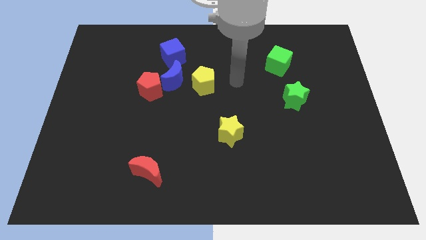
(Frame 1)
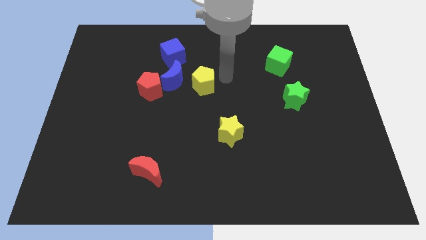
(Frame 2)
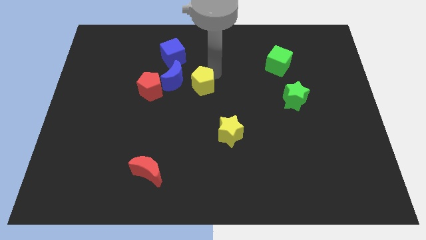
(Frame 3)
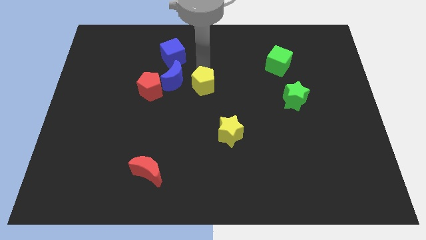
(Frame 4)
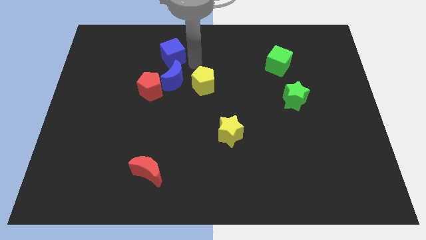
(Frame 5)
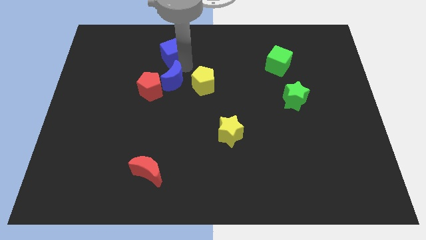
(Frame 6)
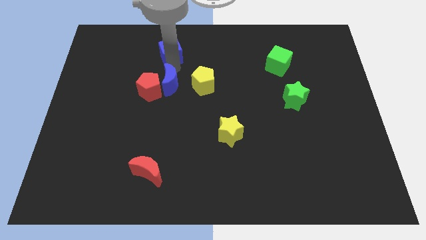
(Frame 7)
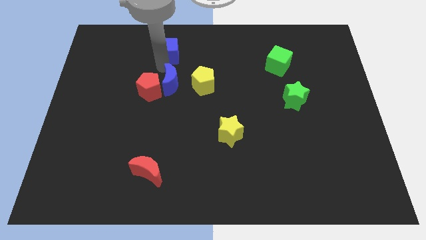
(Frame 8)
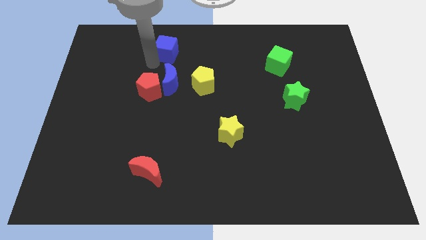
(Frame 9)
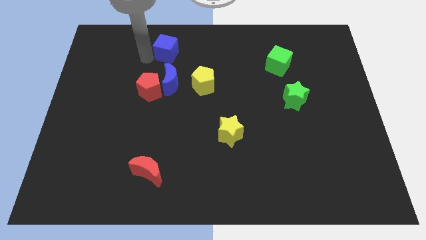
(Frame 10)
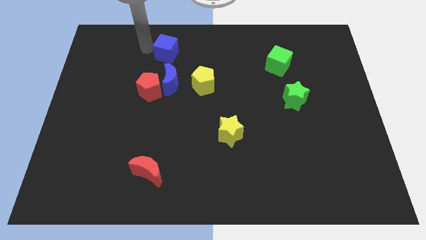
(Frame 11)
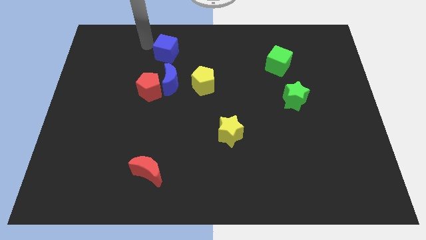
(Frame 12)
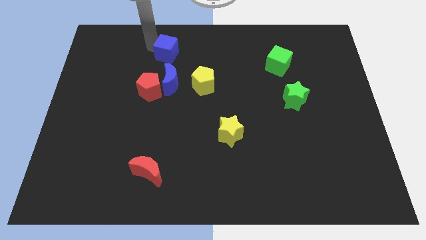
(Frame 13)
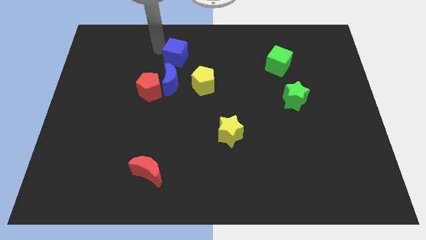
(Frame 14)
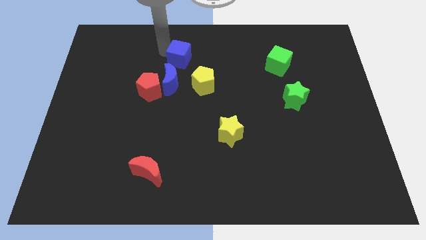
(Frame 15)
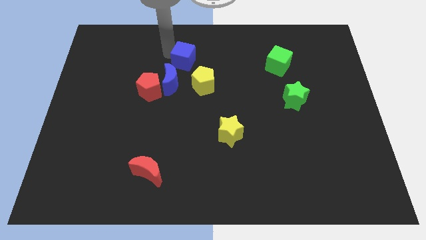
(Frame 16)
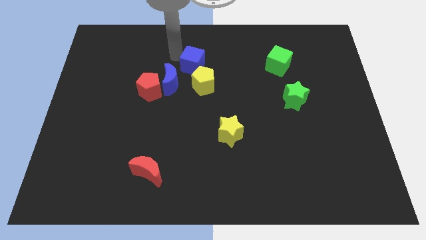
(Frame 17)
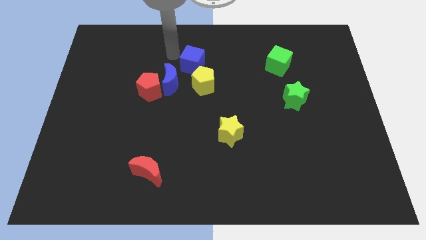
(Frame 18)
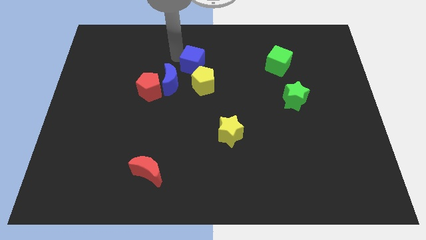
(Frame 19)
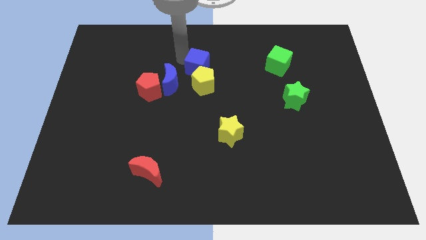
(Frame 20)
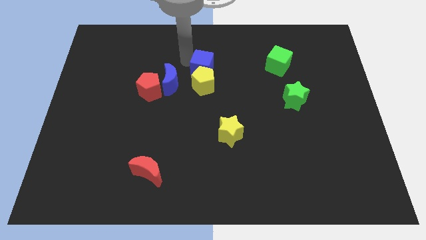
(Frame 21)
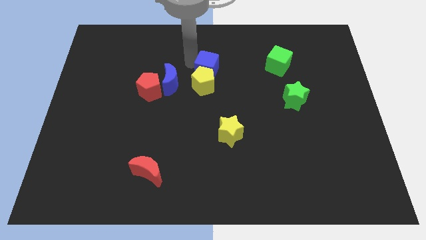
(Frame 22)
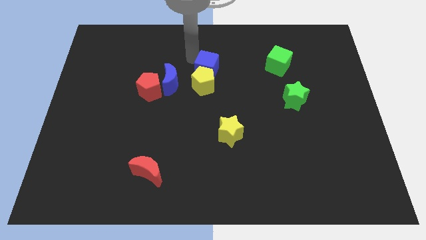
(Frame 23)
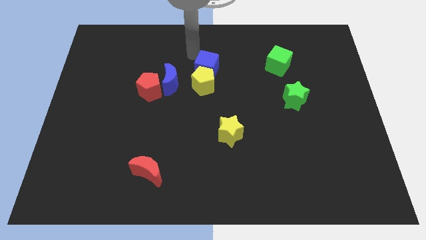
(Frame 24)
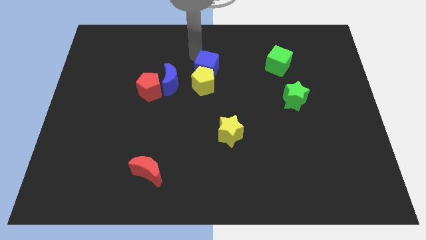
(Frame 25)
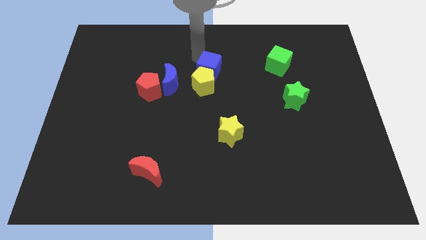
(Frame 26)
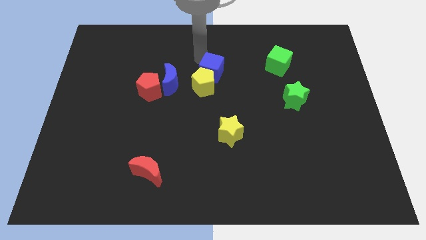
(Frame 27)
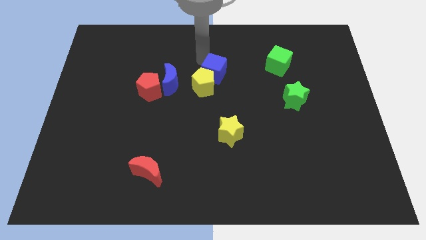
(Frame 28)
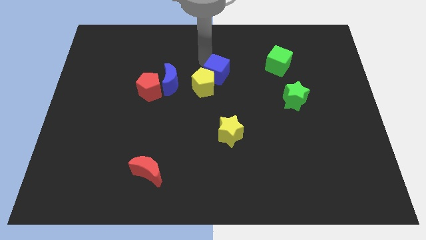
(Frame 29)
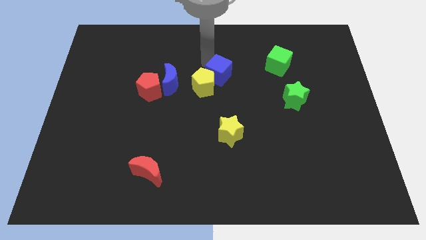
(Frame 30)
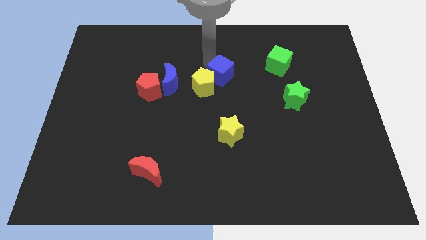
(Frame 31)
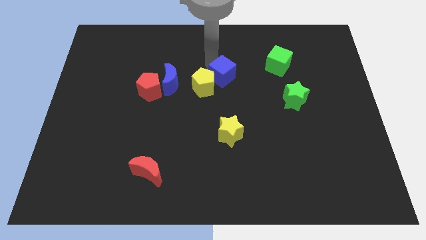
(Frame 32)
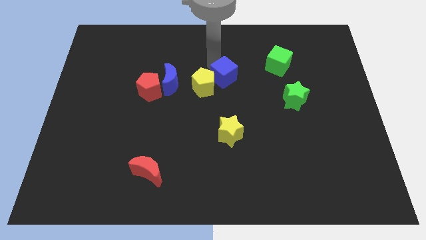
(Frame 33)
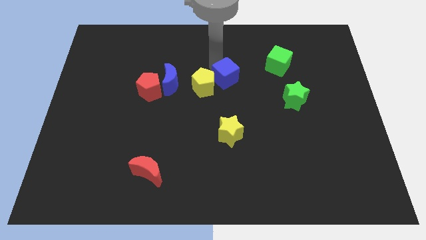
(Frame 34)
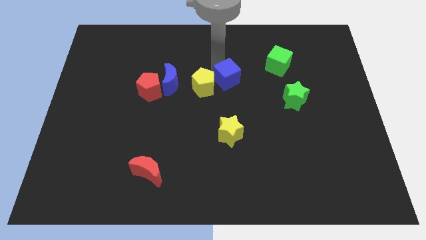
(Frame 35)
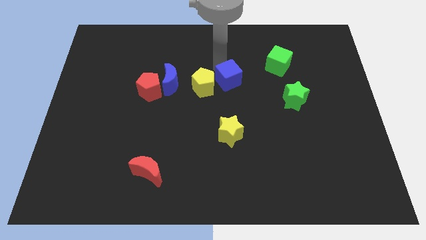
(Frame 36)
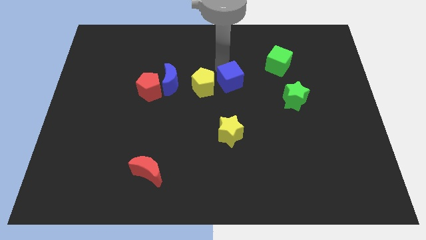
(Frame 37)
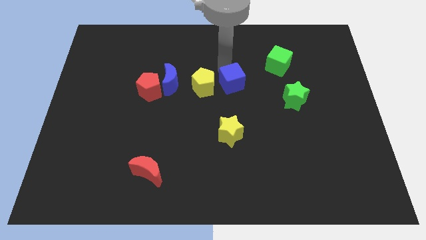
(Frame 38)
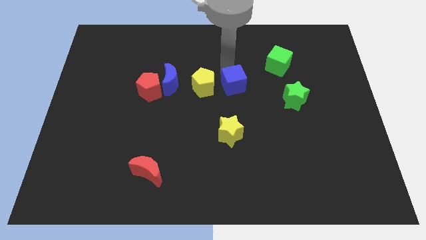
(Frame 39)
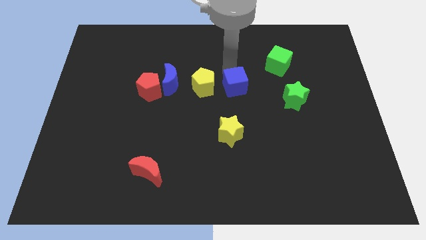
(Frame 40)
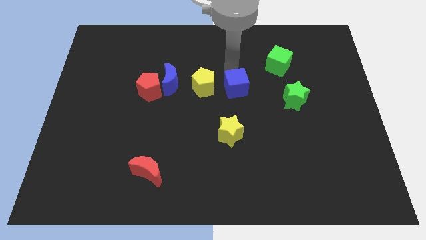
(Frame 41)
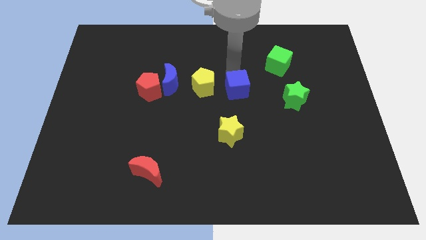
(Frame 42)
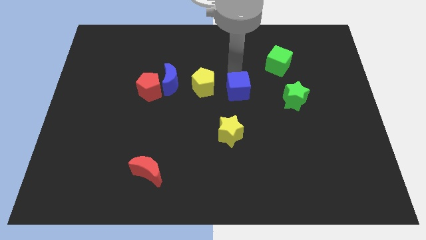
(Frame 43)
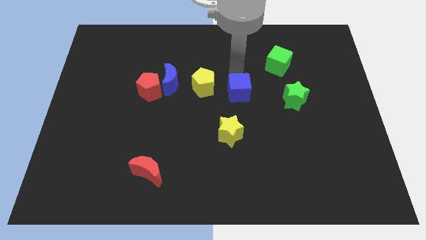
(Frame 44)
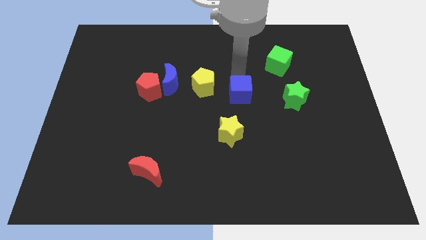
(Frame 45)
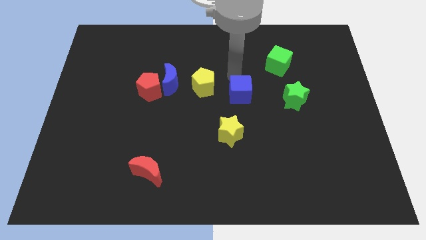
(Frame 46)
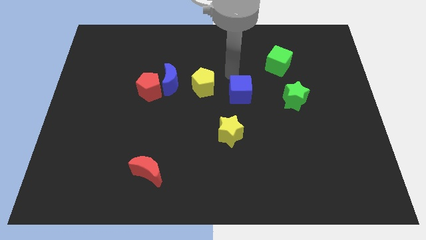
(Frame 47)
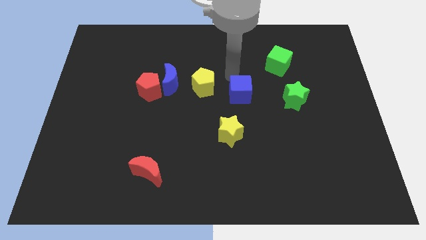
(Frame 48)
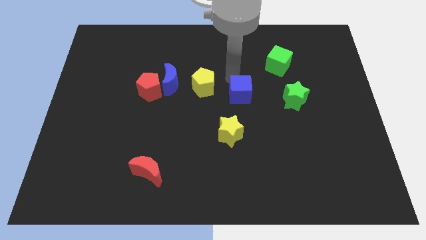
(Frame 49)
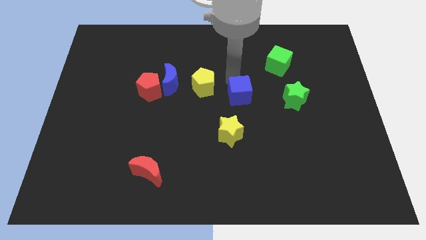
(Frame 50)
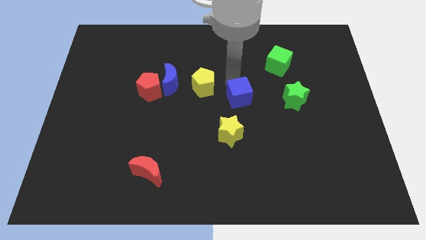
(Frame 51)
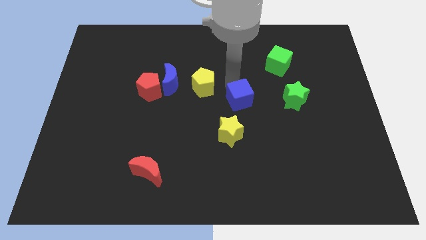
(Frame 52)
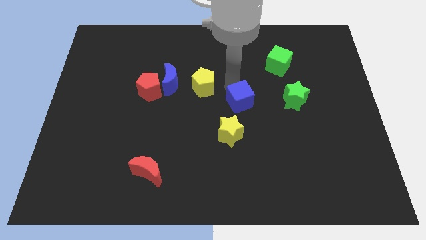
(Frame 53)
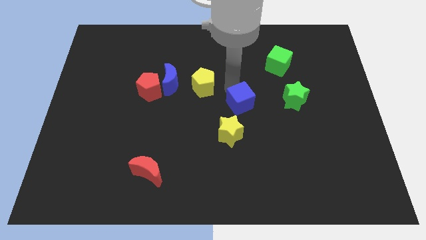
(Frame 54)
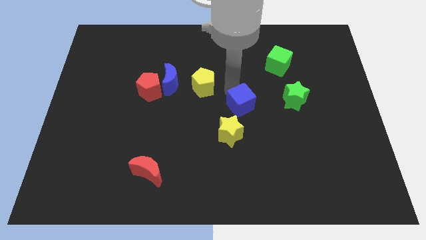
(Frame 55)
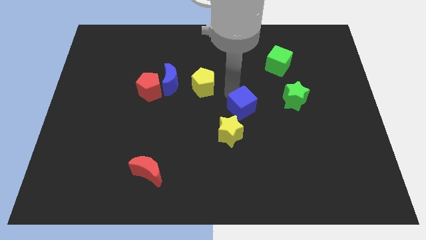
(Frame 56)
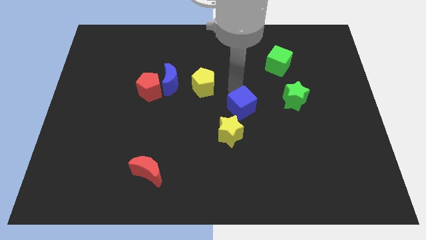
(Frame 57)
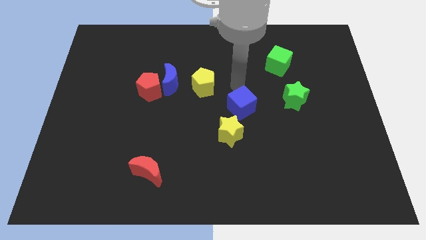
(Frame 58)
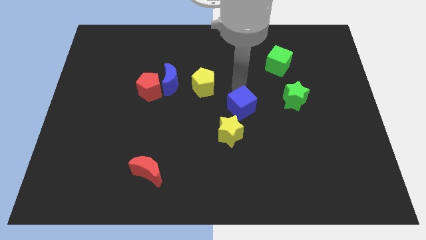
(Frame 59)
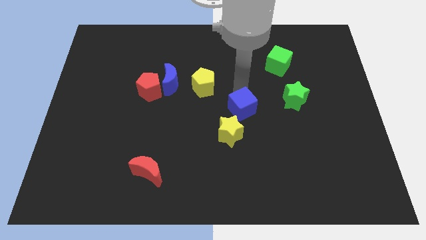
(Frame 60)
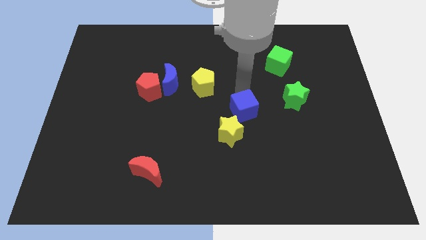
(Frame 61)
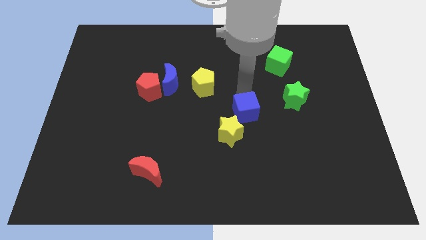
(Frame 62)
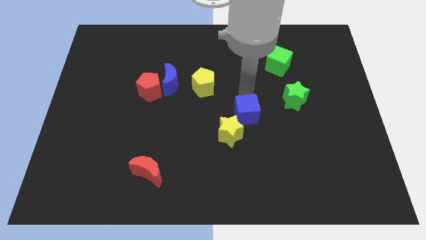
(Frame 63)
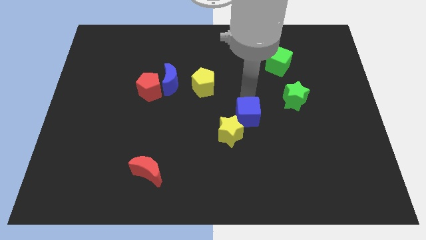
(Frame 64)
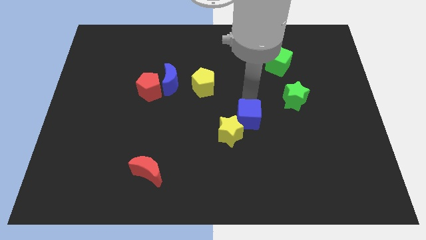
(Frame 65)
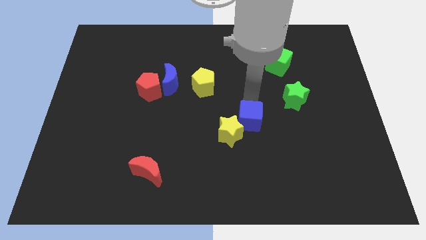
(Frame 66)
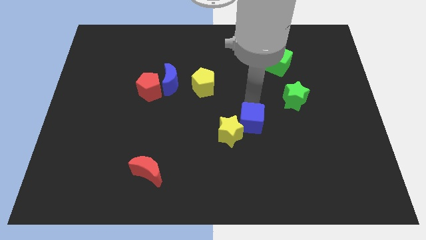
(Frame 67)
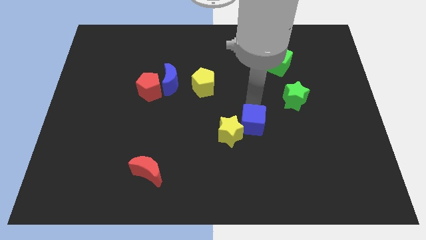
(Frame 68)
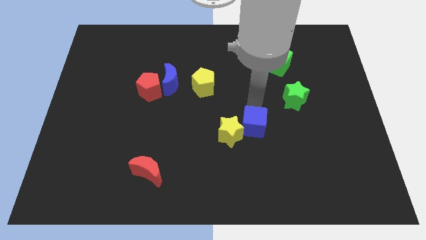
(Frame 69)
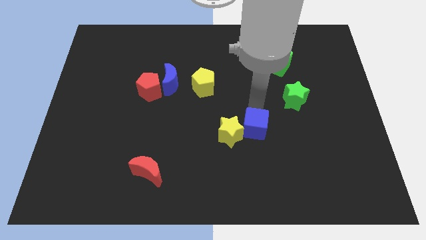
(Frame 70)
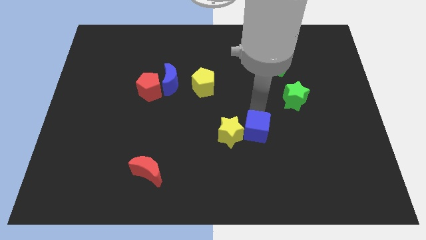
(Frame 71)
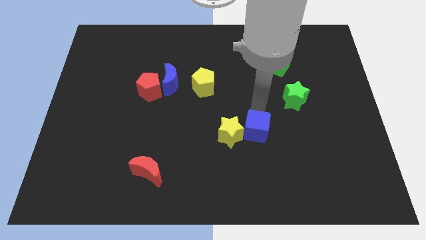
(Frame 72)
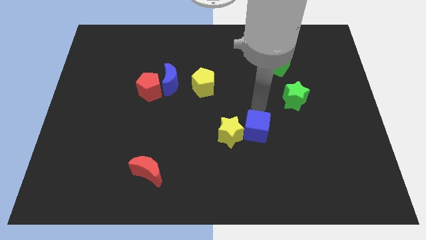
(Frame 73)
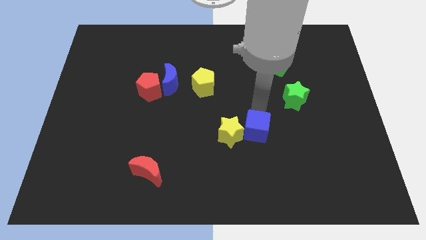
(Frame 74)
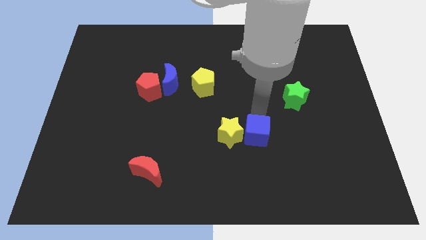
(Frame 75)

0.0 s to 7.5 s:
slide the blue cube to the bottom right side of the yellow star
